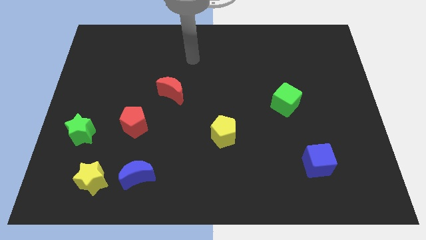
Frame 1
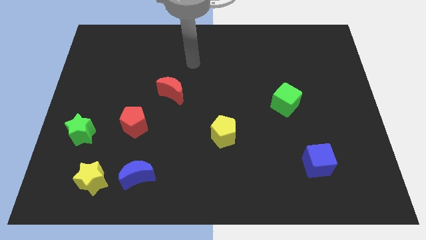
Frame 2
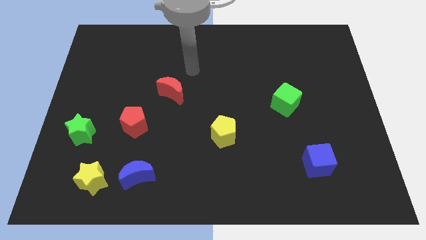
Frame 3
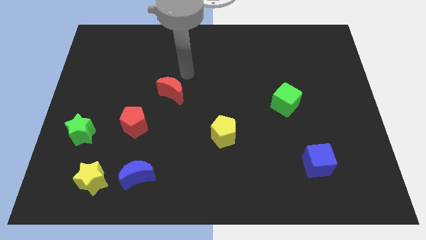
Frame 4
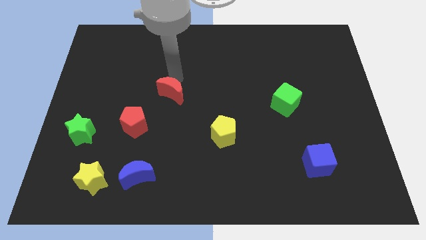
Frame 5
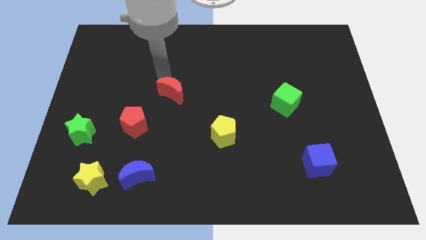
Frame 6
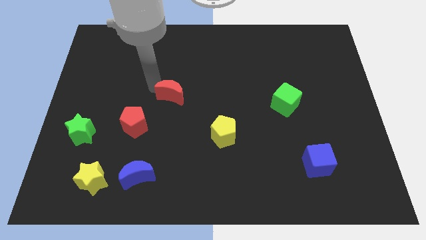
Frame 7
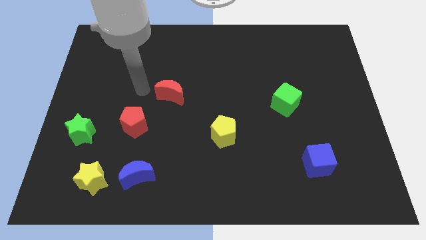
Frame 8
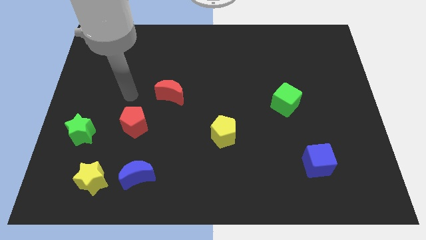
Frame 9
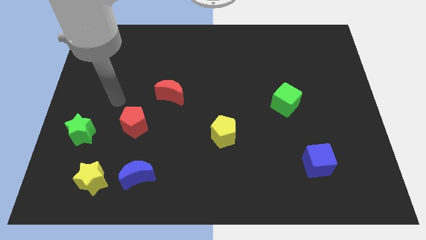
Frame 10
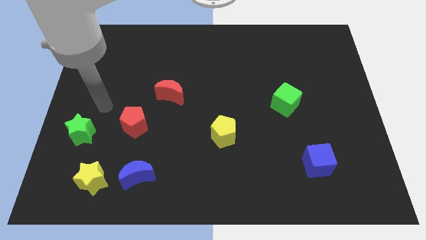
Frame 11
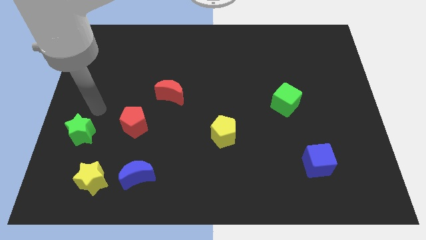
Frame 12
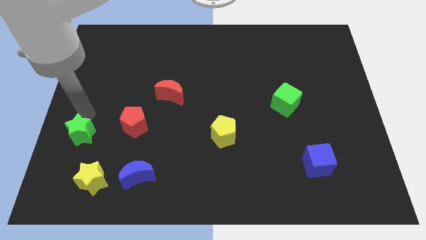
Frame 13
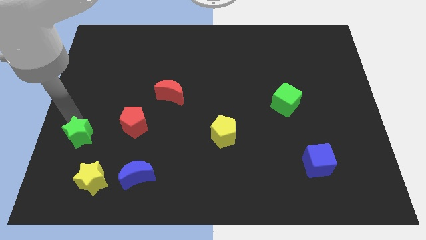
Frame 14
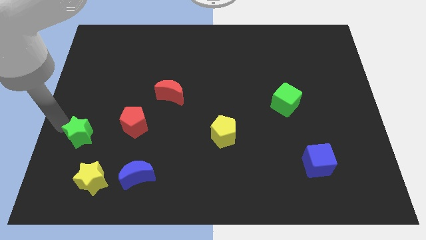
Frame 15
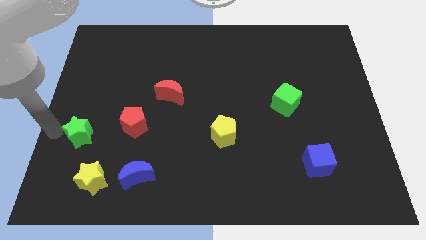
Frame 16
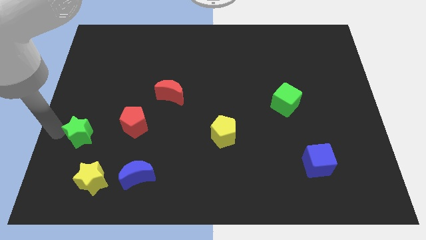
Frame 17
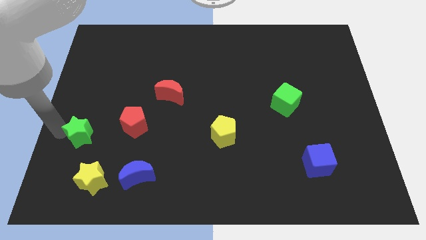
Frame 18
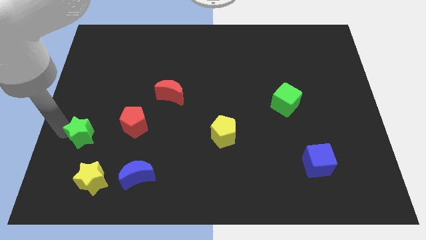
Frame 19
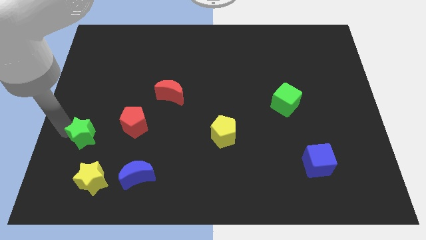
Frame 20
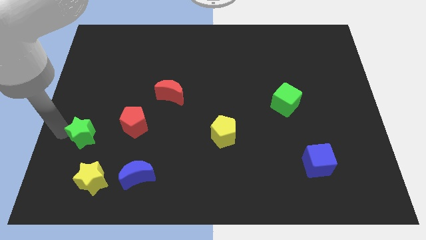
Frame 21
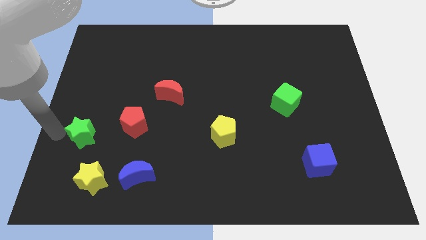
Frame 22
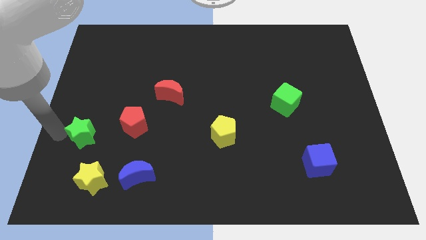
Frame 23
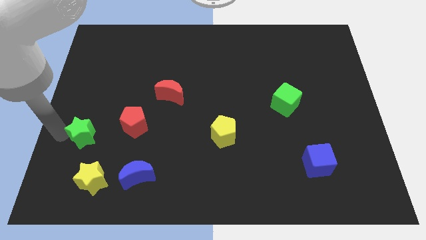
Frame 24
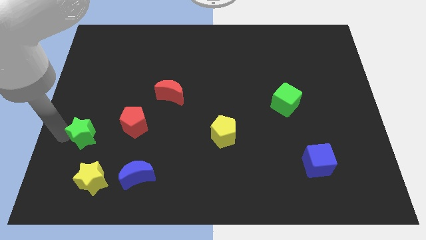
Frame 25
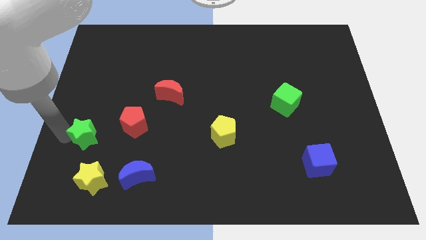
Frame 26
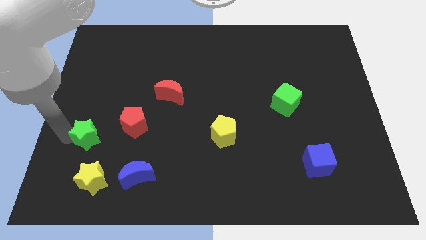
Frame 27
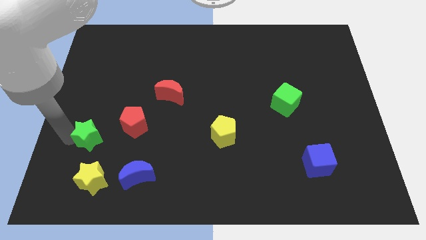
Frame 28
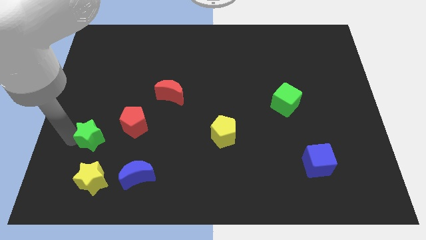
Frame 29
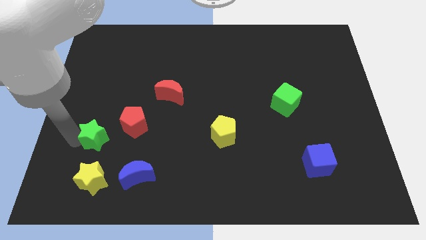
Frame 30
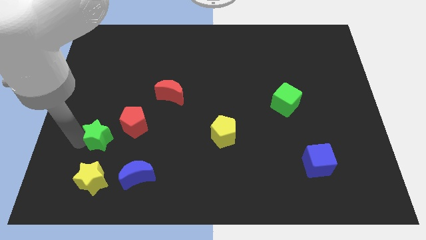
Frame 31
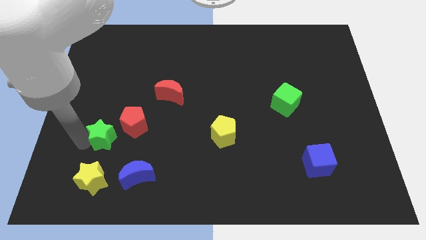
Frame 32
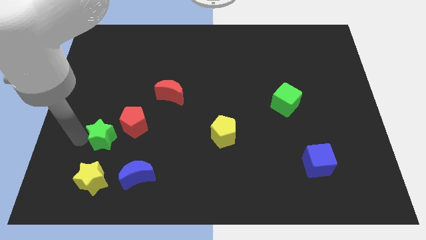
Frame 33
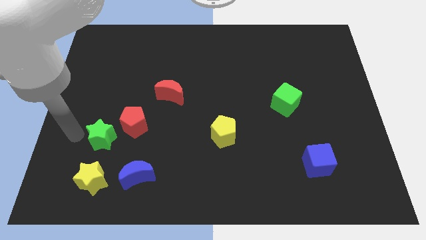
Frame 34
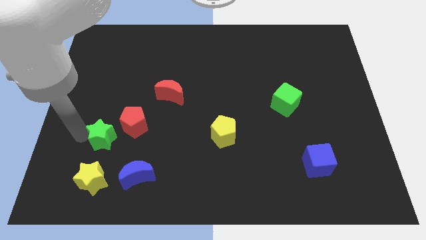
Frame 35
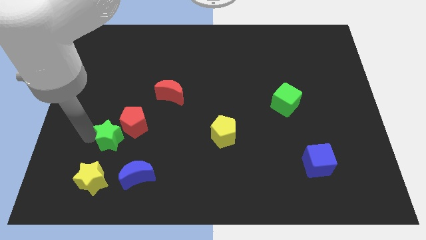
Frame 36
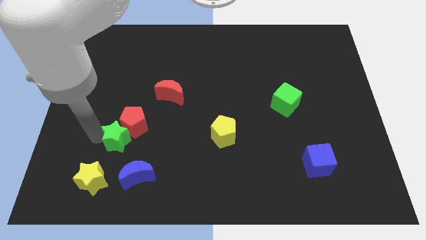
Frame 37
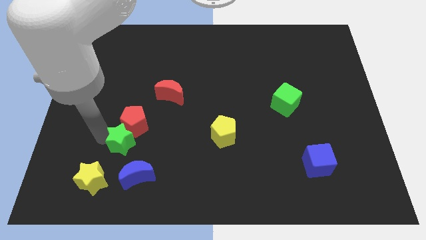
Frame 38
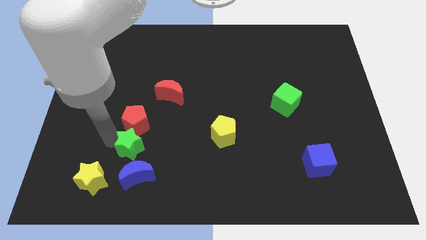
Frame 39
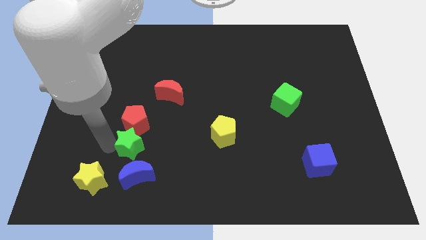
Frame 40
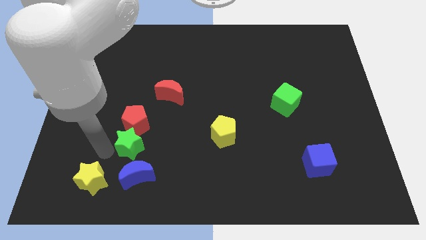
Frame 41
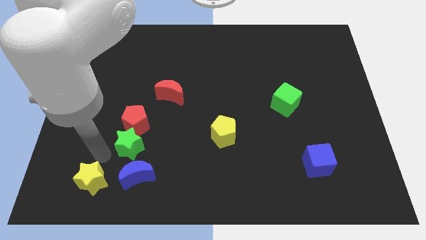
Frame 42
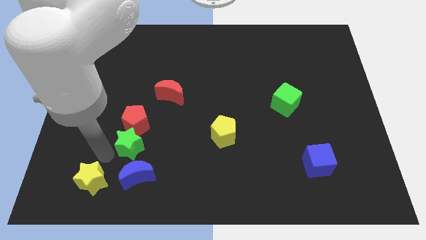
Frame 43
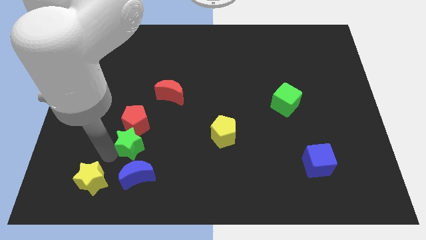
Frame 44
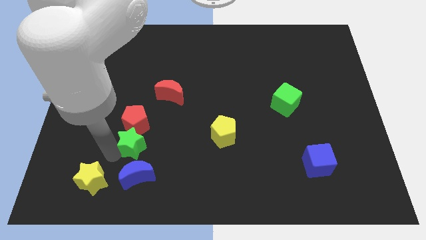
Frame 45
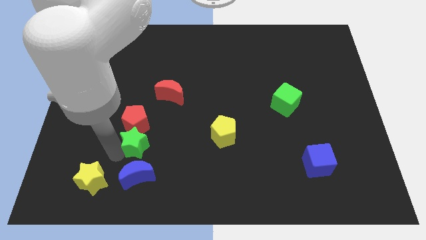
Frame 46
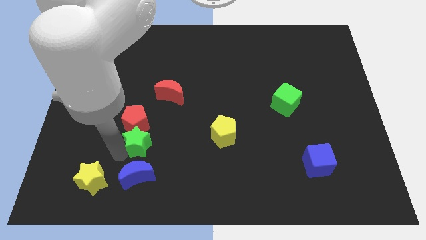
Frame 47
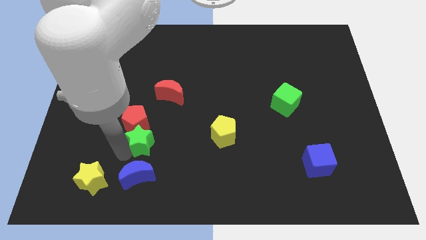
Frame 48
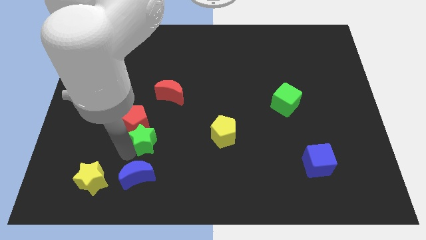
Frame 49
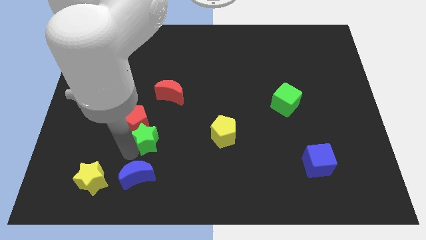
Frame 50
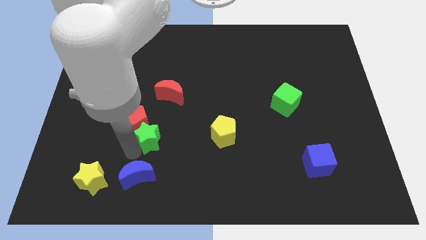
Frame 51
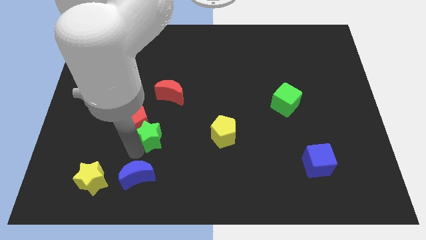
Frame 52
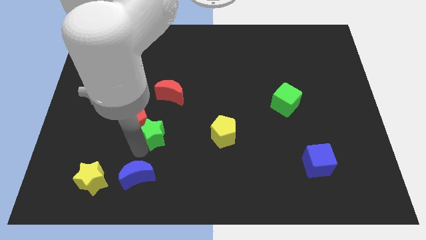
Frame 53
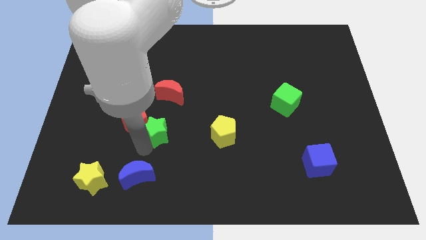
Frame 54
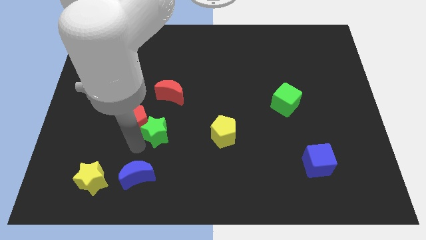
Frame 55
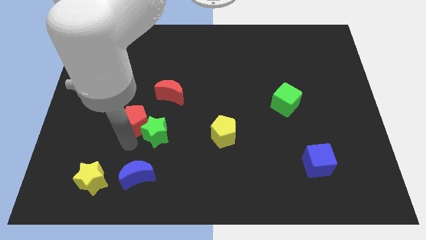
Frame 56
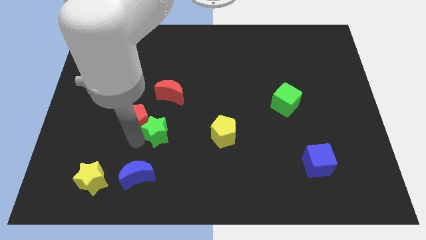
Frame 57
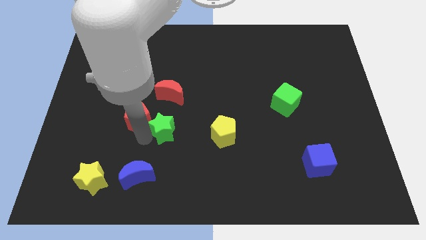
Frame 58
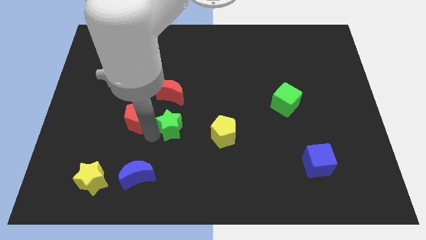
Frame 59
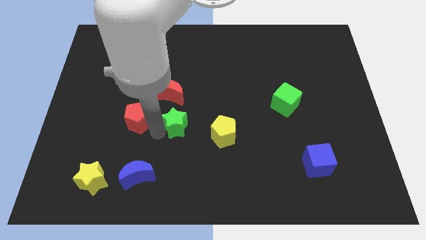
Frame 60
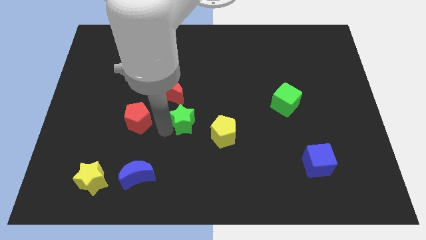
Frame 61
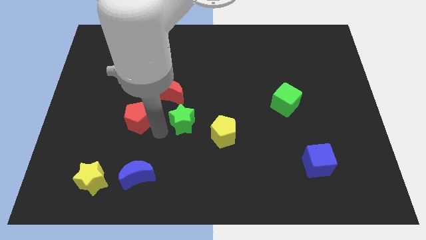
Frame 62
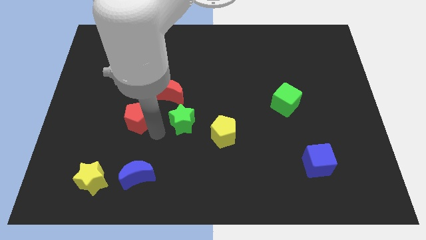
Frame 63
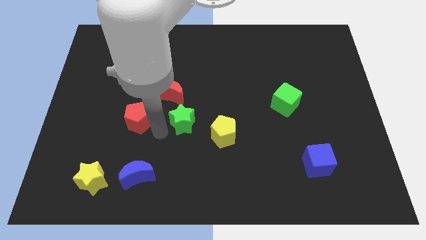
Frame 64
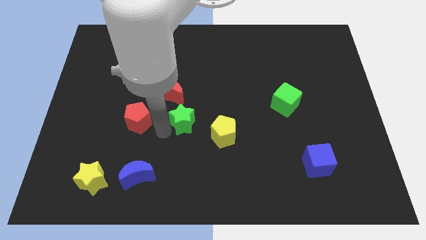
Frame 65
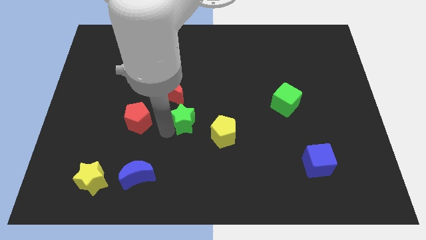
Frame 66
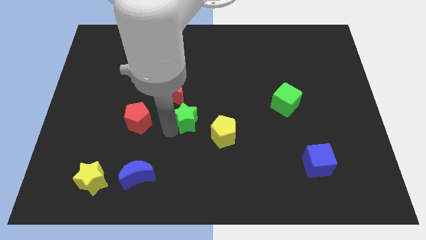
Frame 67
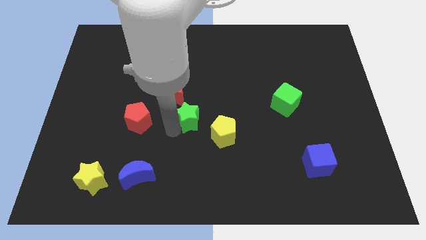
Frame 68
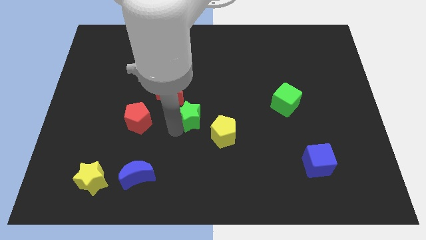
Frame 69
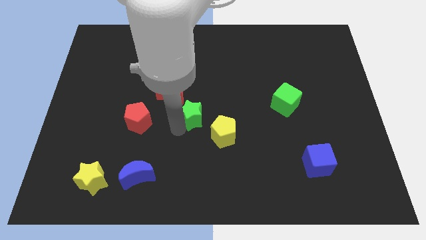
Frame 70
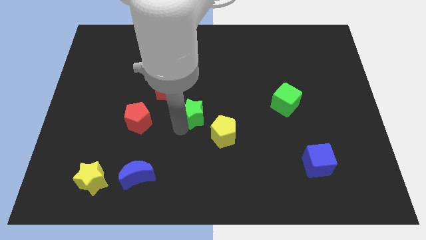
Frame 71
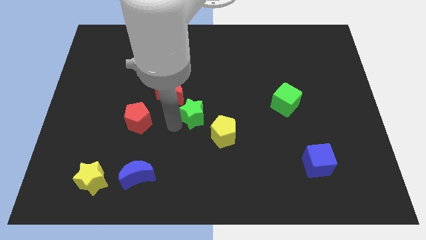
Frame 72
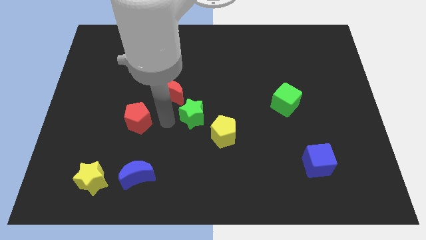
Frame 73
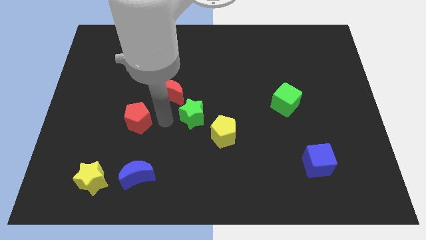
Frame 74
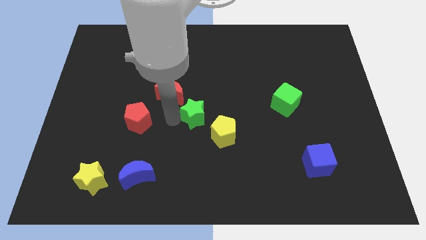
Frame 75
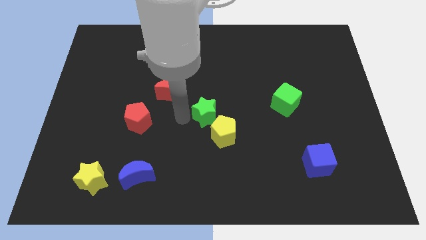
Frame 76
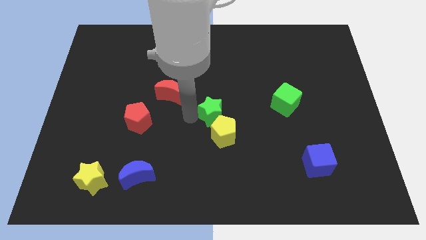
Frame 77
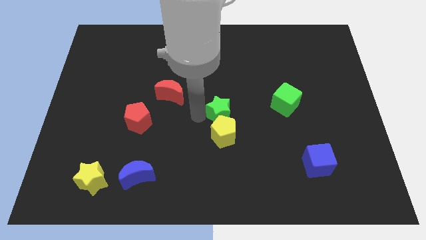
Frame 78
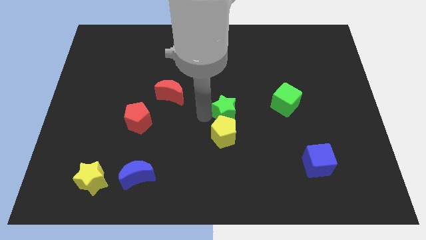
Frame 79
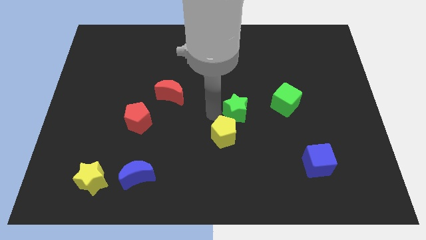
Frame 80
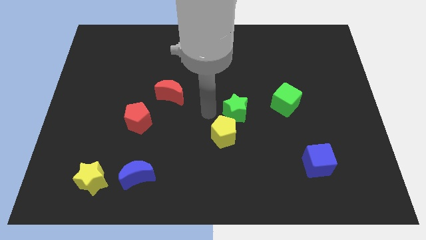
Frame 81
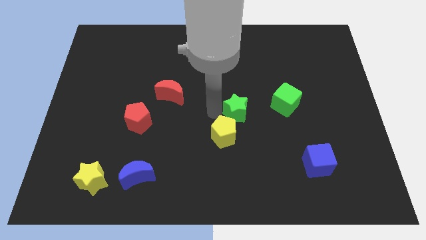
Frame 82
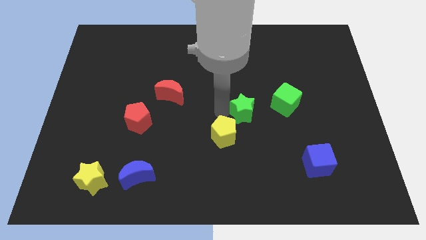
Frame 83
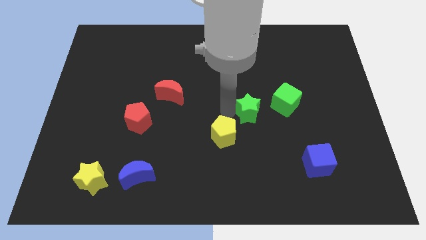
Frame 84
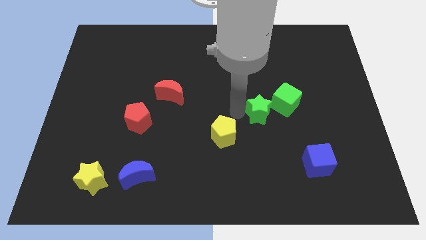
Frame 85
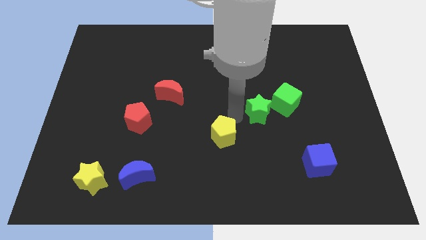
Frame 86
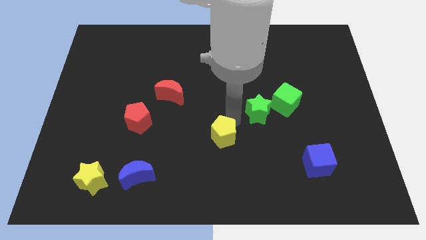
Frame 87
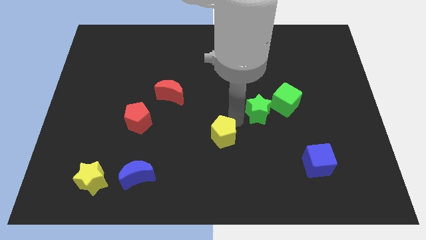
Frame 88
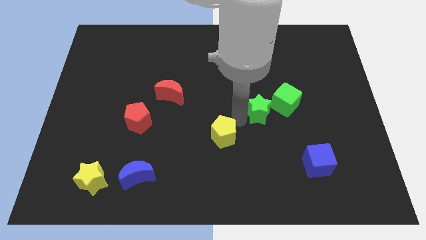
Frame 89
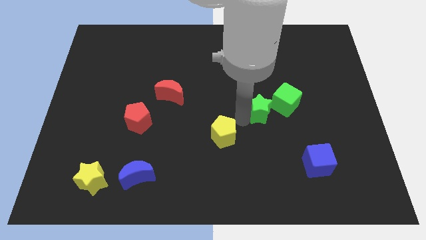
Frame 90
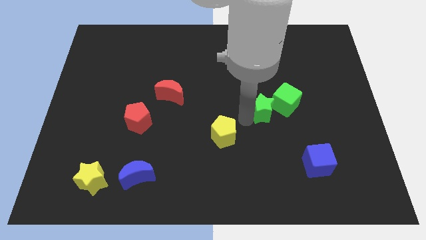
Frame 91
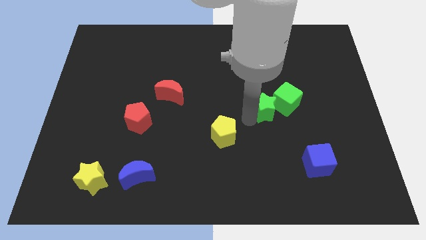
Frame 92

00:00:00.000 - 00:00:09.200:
push the green star towards the green cube
